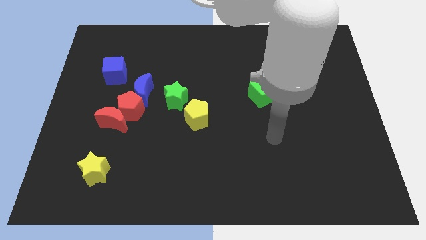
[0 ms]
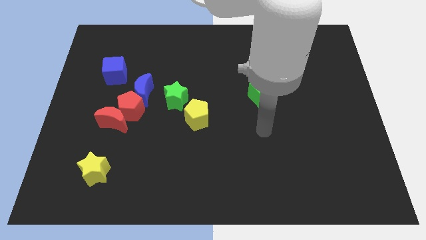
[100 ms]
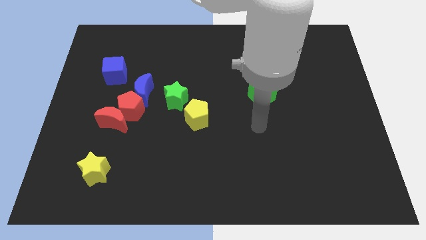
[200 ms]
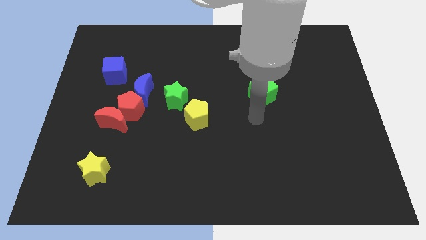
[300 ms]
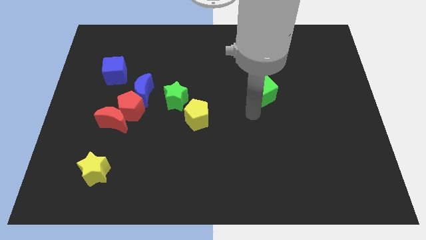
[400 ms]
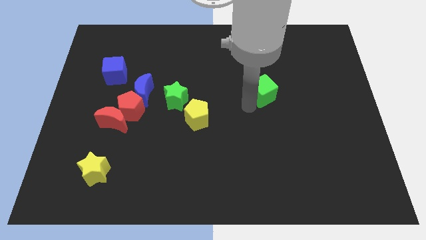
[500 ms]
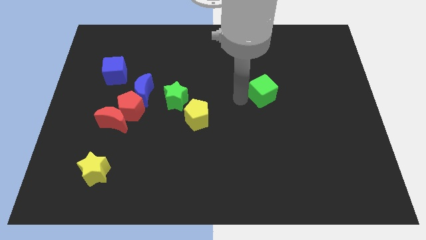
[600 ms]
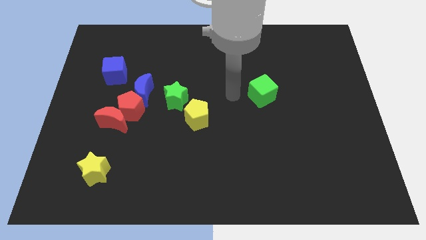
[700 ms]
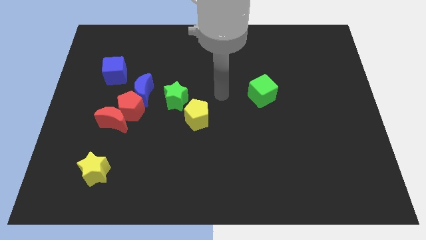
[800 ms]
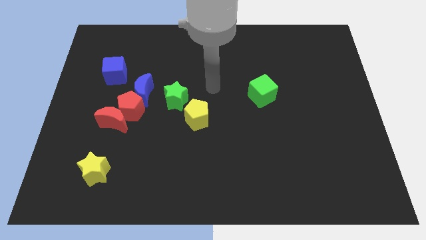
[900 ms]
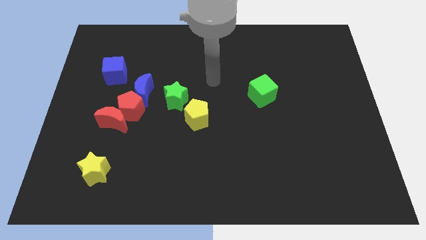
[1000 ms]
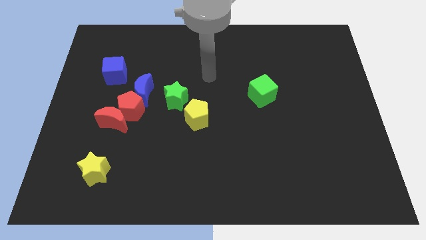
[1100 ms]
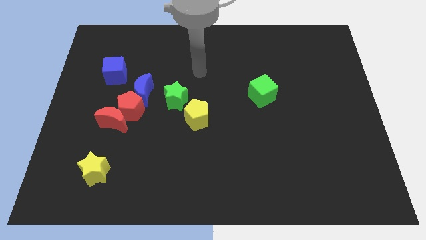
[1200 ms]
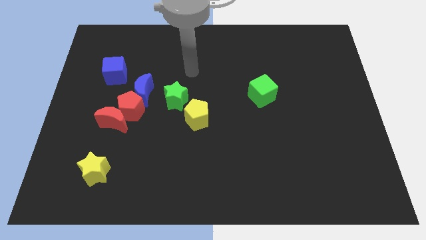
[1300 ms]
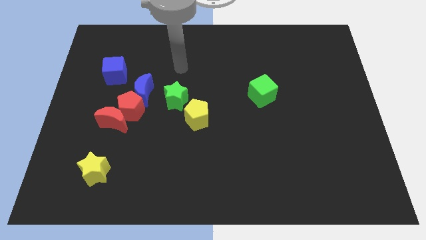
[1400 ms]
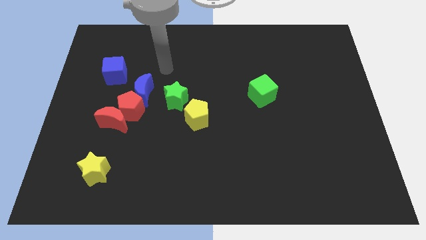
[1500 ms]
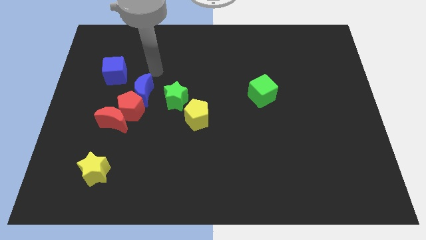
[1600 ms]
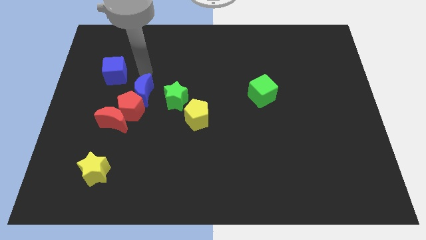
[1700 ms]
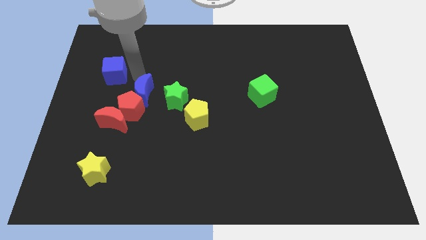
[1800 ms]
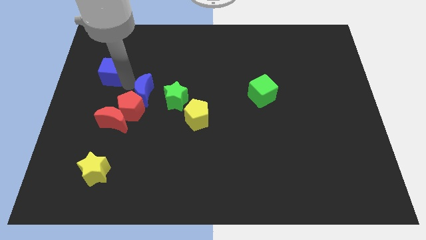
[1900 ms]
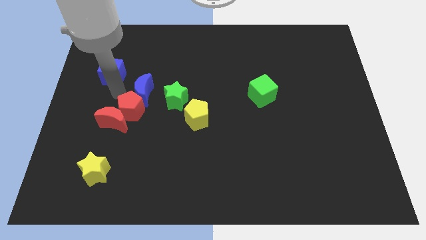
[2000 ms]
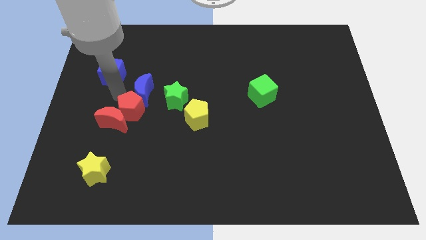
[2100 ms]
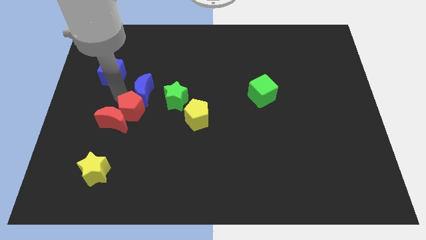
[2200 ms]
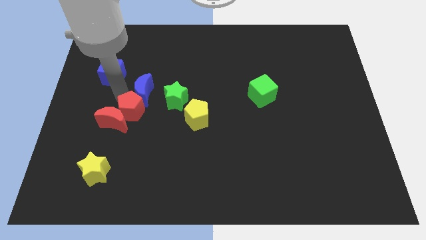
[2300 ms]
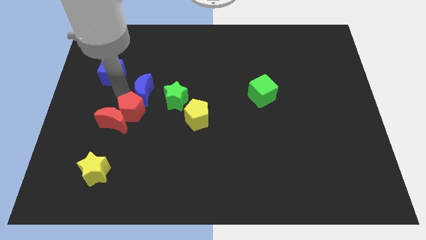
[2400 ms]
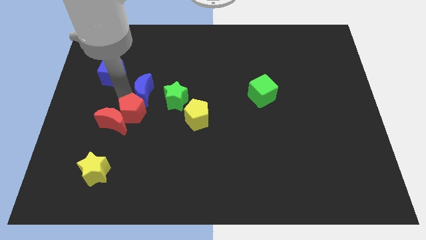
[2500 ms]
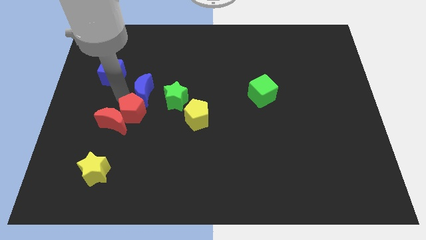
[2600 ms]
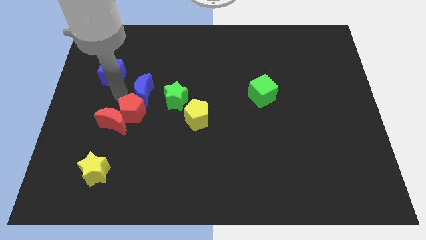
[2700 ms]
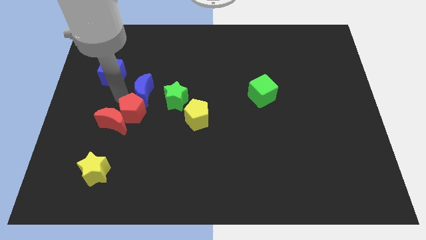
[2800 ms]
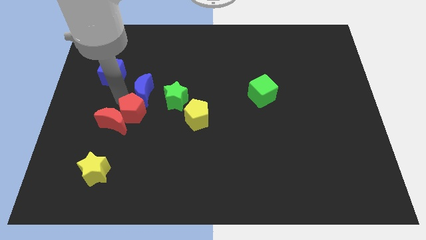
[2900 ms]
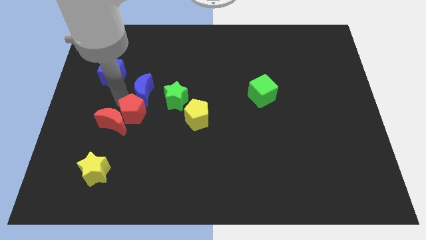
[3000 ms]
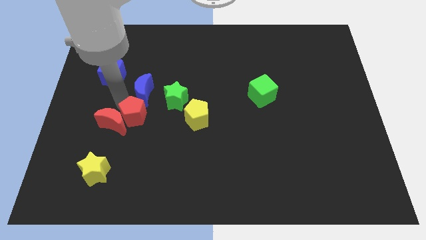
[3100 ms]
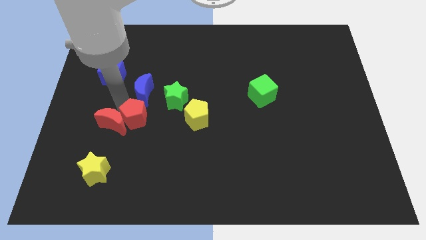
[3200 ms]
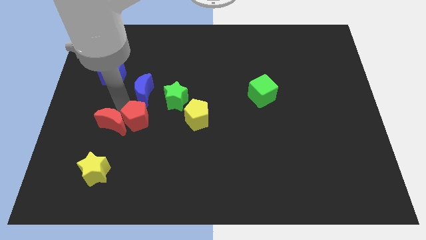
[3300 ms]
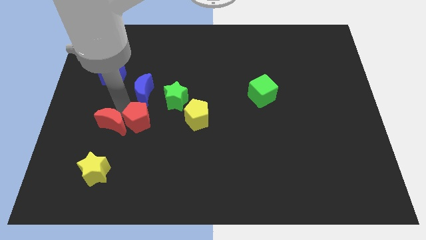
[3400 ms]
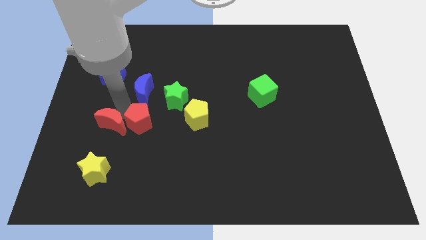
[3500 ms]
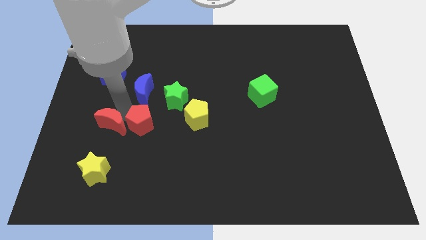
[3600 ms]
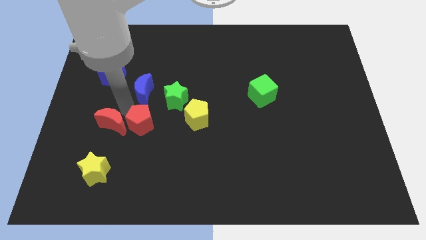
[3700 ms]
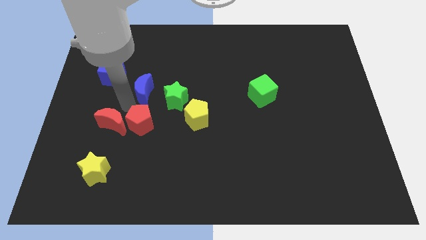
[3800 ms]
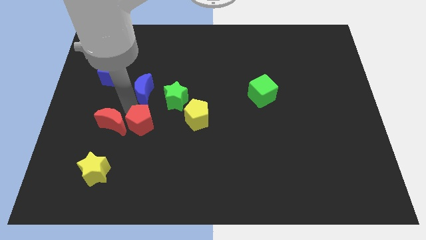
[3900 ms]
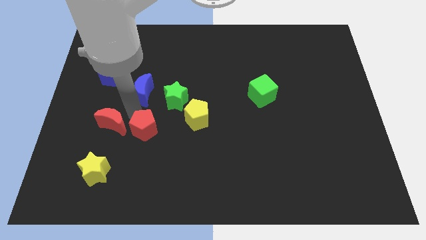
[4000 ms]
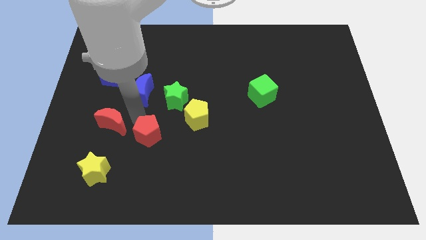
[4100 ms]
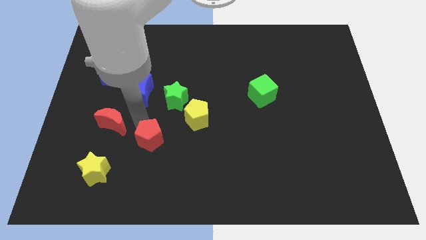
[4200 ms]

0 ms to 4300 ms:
pull the red pentagon apart from the red moon and blue moon

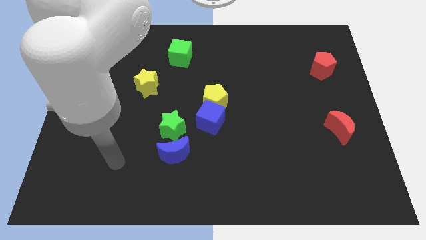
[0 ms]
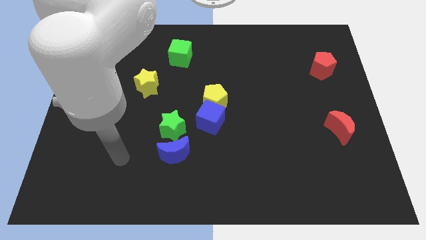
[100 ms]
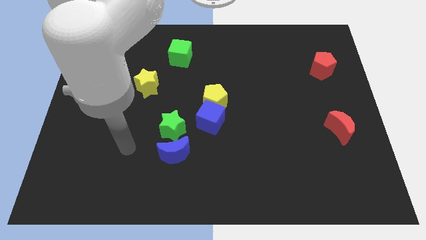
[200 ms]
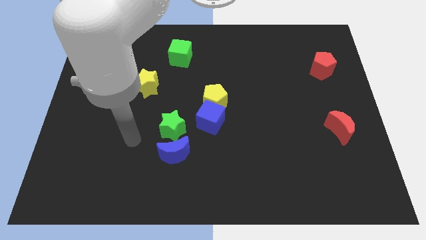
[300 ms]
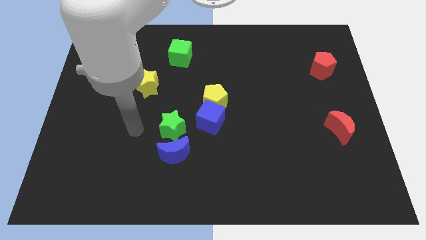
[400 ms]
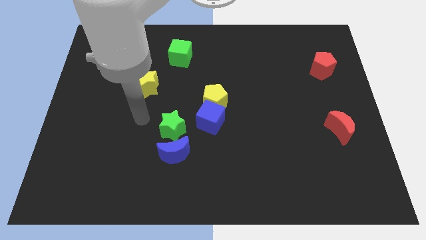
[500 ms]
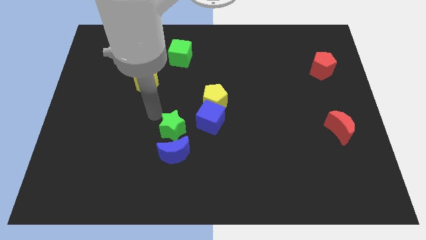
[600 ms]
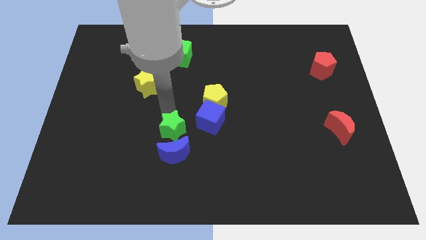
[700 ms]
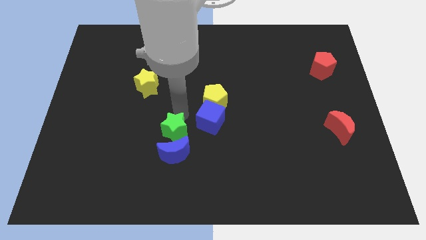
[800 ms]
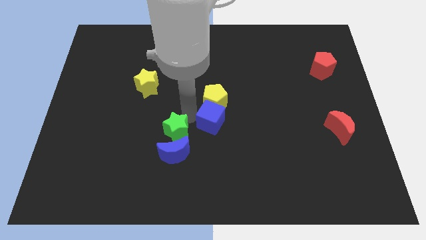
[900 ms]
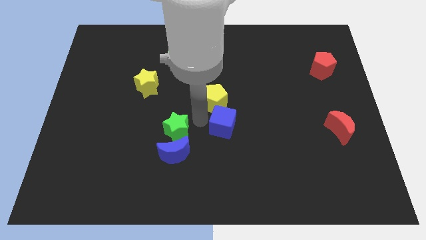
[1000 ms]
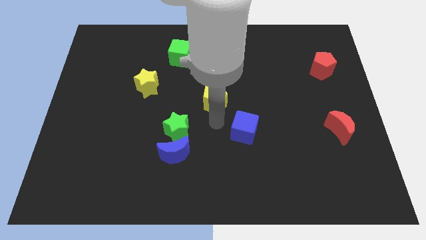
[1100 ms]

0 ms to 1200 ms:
move the yellow pentagon away from the blue cube

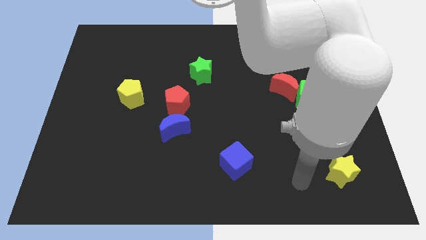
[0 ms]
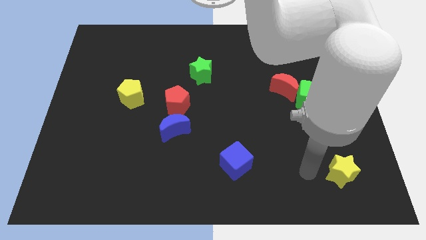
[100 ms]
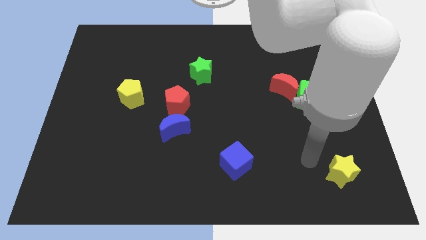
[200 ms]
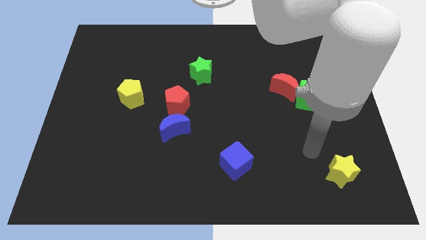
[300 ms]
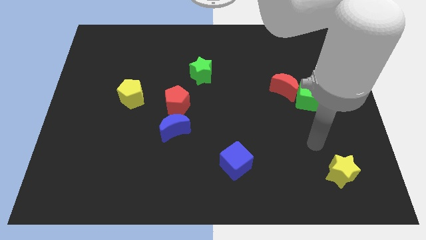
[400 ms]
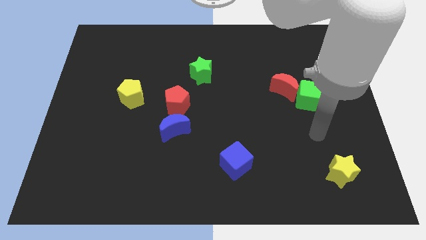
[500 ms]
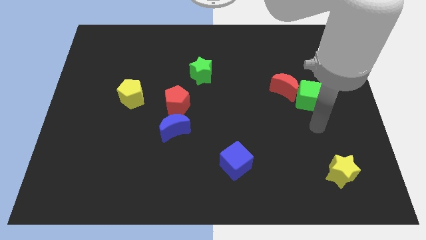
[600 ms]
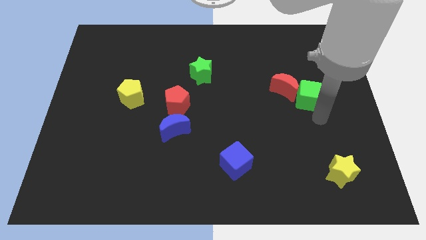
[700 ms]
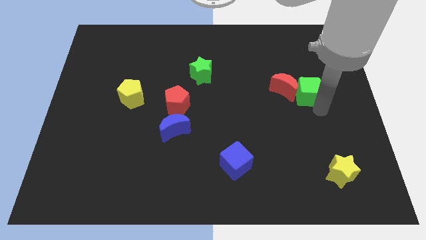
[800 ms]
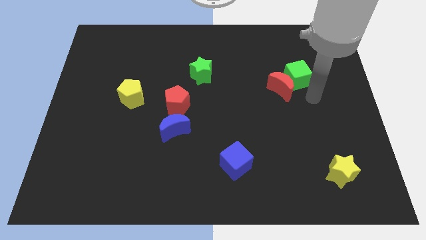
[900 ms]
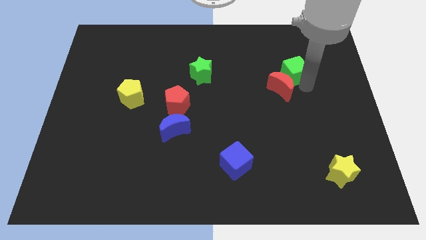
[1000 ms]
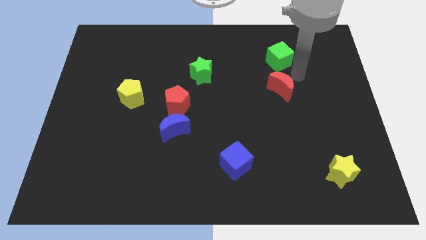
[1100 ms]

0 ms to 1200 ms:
separate the red moon from the green cube

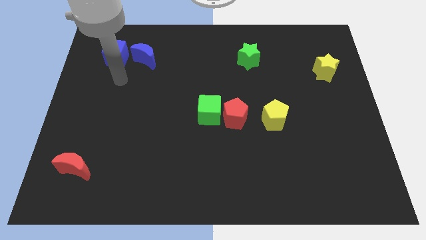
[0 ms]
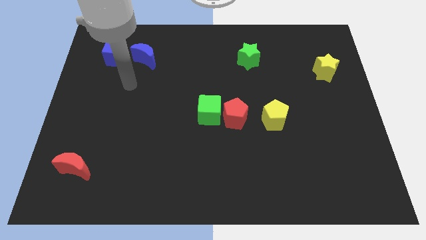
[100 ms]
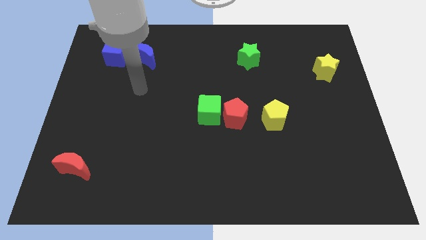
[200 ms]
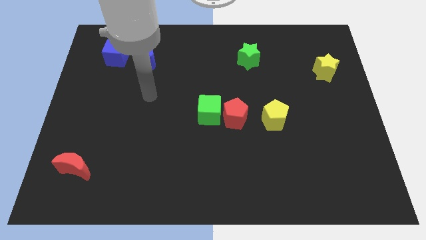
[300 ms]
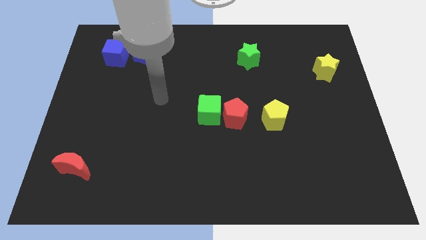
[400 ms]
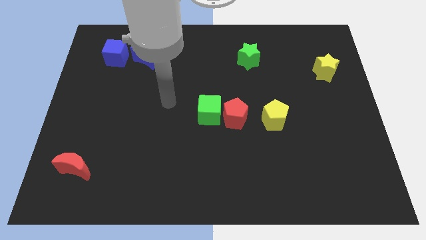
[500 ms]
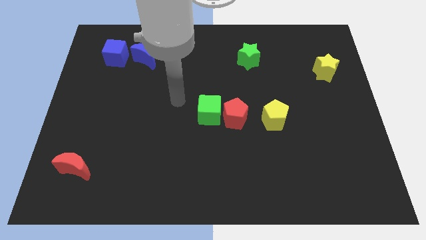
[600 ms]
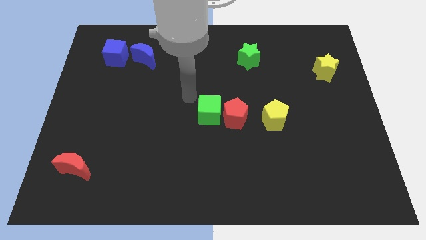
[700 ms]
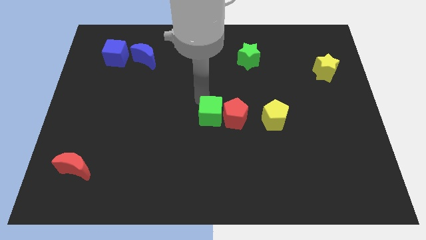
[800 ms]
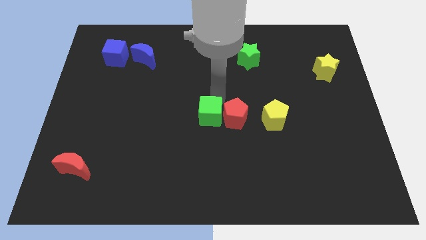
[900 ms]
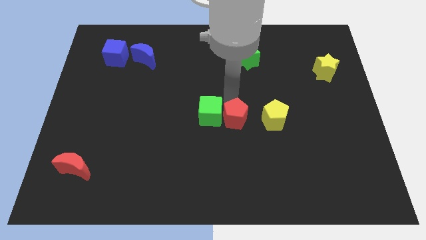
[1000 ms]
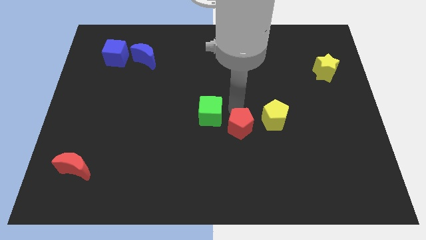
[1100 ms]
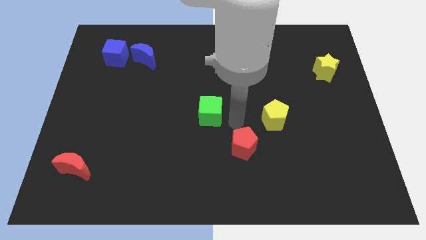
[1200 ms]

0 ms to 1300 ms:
separate the green cube from the red pentagon

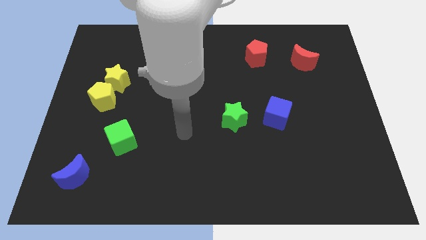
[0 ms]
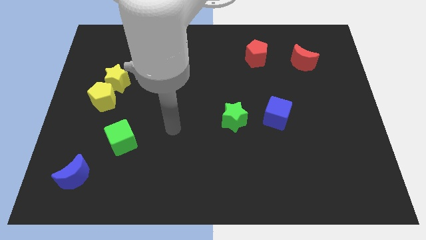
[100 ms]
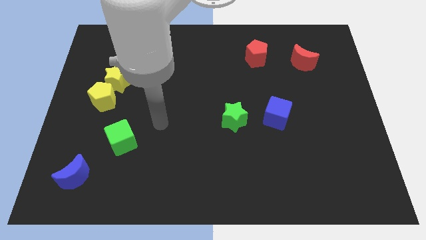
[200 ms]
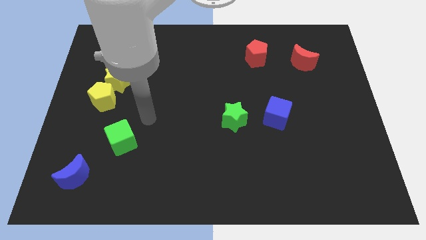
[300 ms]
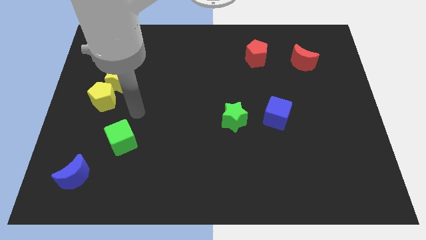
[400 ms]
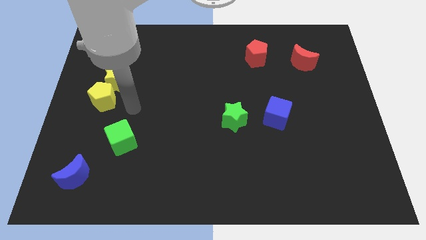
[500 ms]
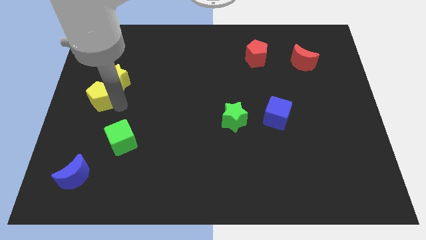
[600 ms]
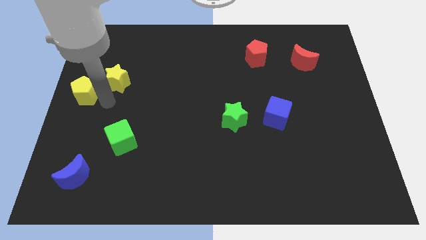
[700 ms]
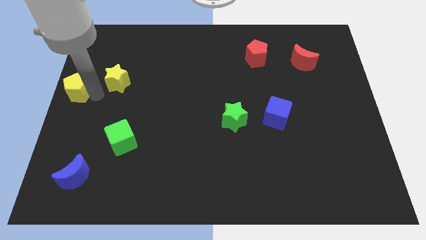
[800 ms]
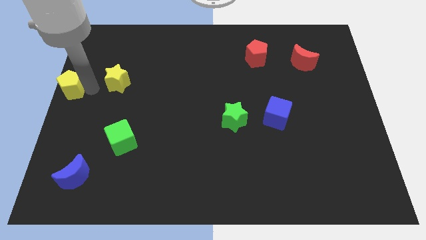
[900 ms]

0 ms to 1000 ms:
separate the yellow star from the yellow pentagon
